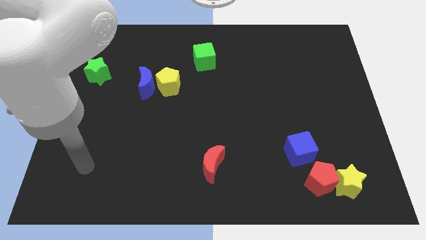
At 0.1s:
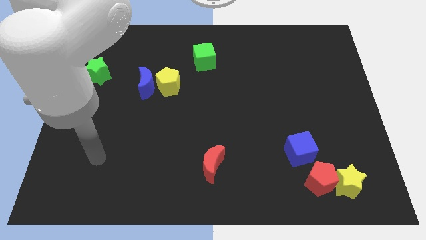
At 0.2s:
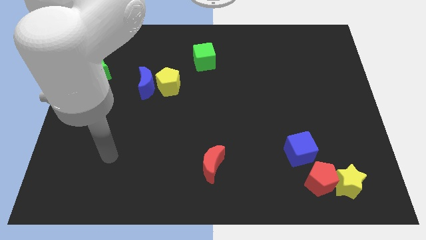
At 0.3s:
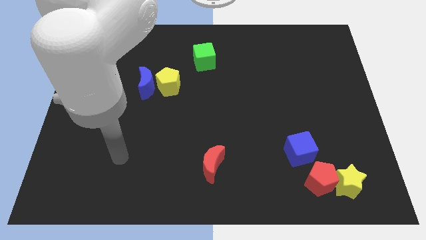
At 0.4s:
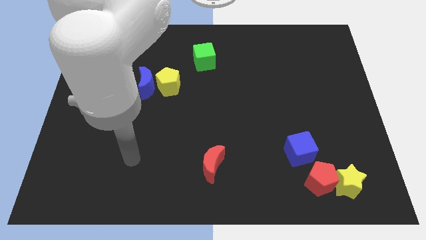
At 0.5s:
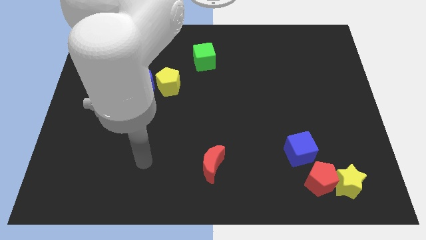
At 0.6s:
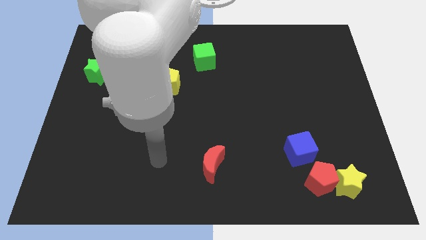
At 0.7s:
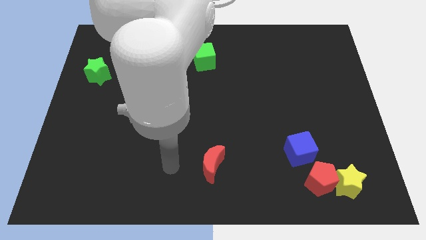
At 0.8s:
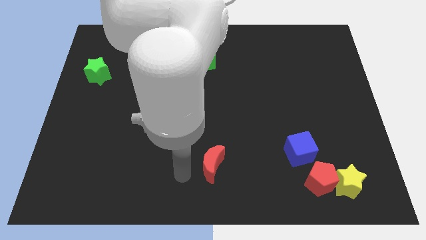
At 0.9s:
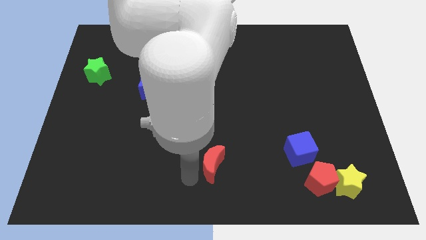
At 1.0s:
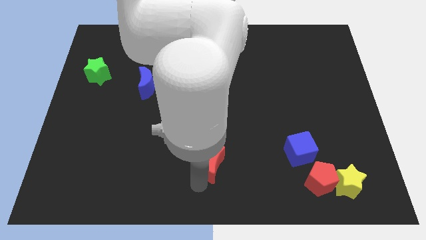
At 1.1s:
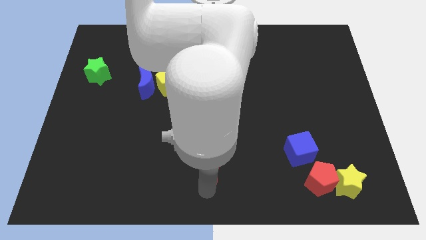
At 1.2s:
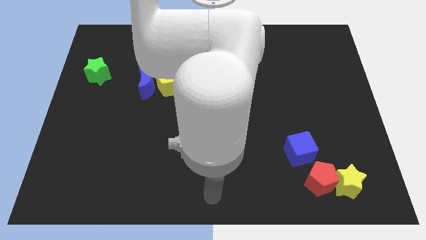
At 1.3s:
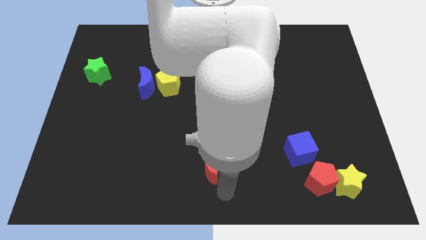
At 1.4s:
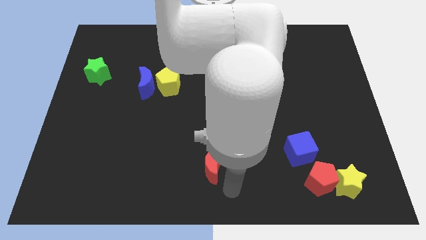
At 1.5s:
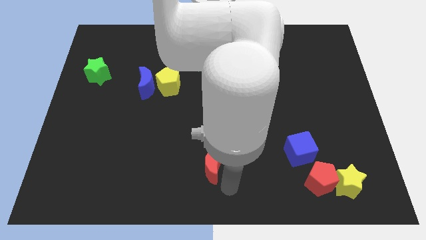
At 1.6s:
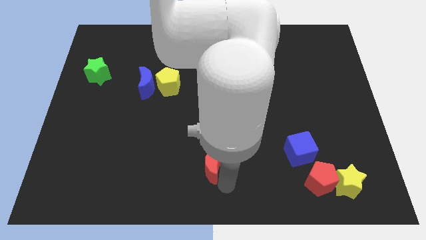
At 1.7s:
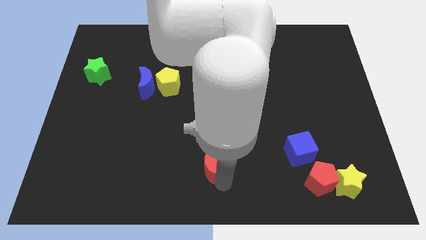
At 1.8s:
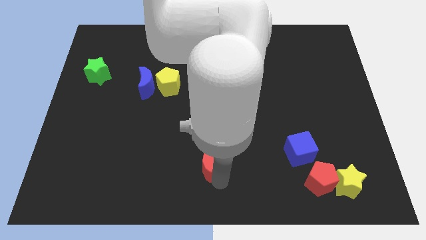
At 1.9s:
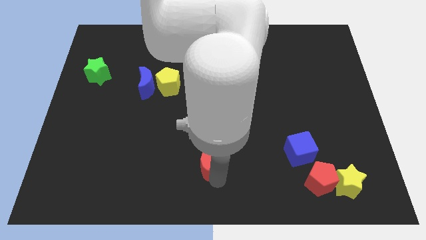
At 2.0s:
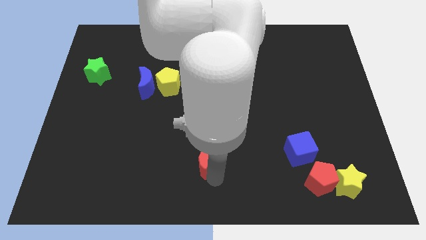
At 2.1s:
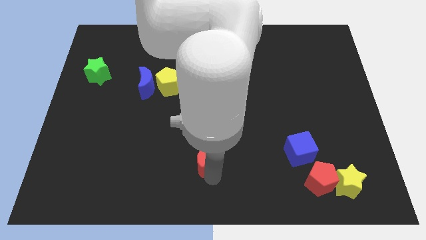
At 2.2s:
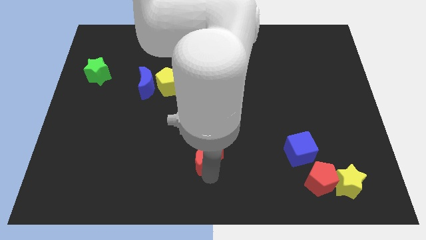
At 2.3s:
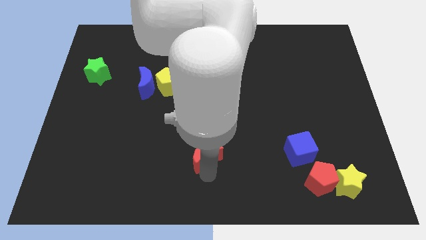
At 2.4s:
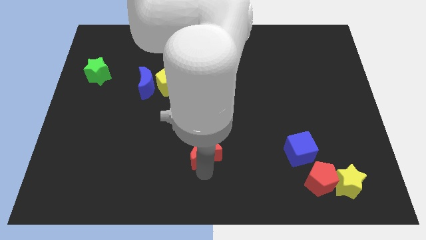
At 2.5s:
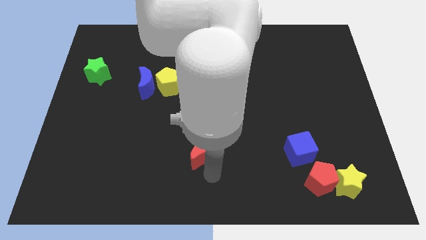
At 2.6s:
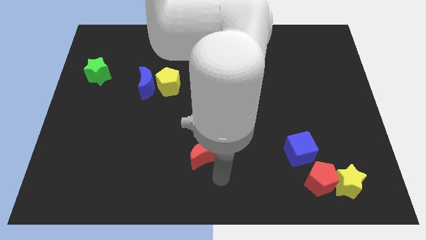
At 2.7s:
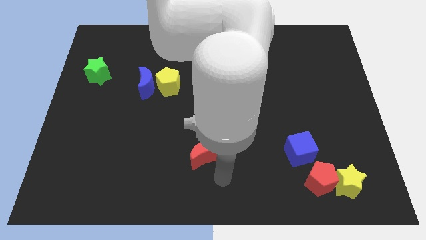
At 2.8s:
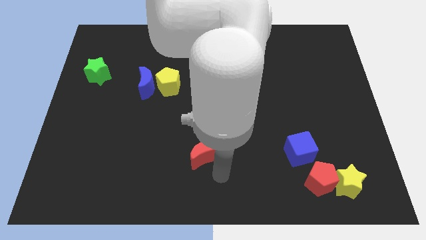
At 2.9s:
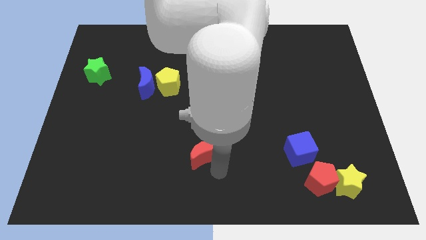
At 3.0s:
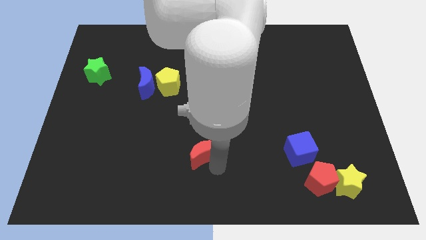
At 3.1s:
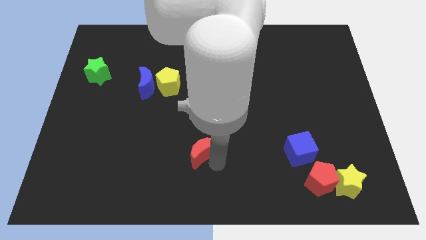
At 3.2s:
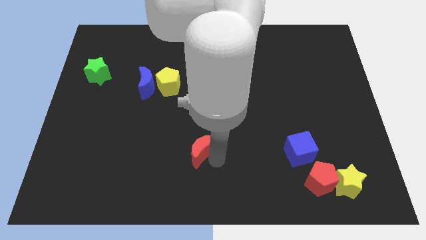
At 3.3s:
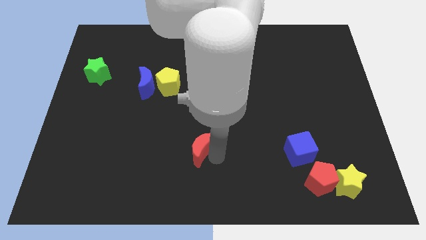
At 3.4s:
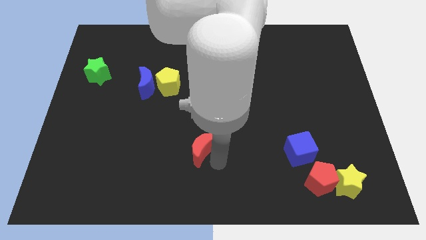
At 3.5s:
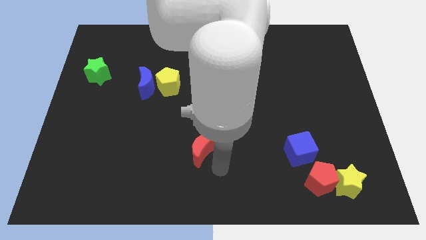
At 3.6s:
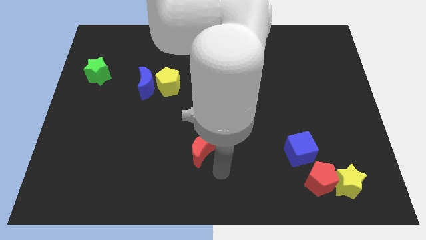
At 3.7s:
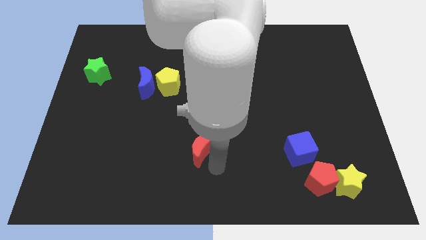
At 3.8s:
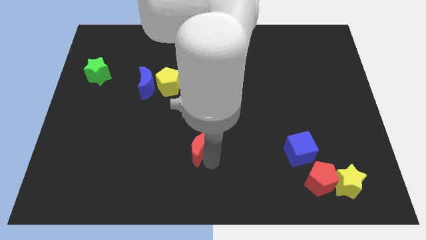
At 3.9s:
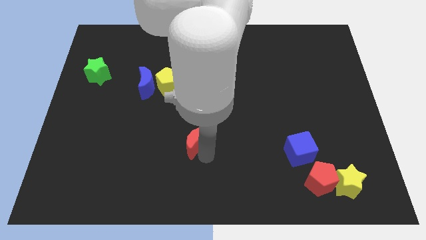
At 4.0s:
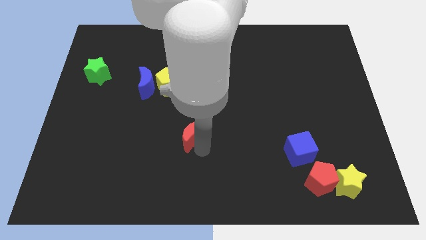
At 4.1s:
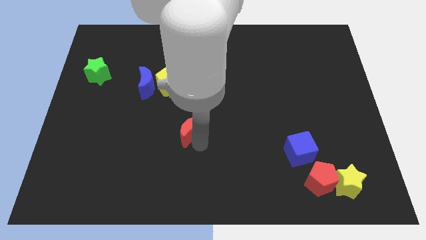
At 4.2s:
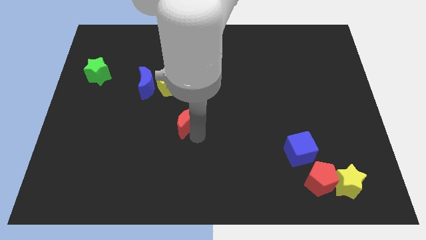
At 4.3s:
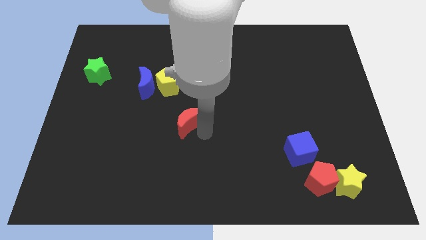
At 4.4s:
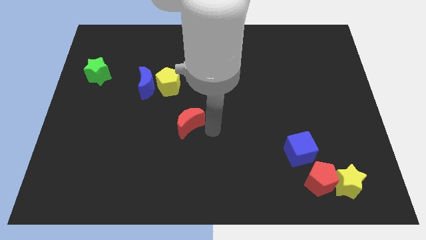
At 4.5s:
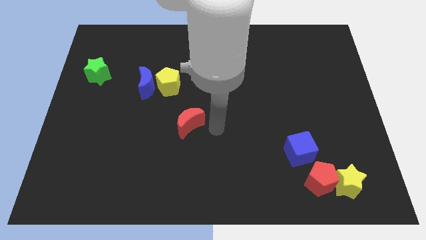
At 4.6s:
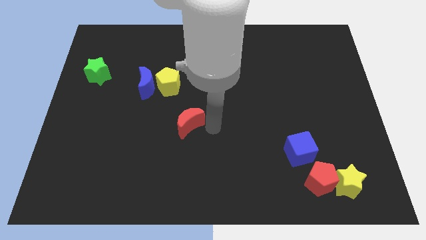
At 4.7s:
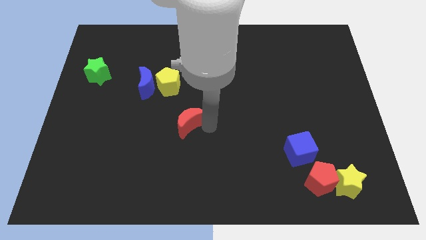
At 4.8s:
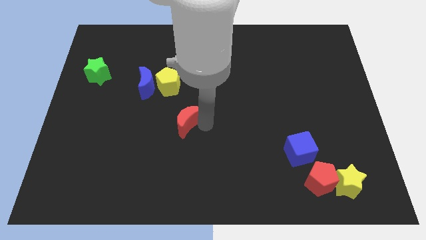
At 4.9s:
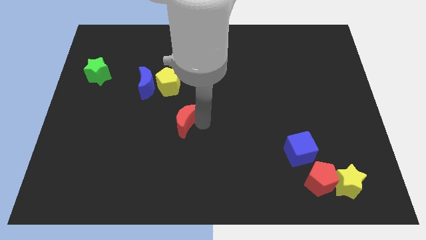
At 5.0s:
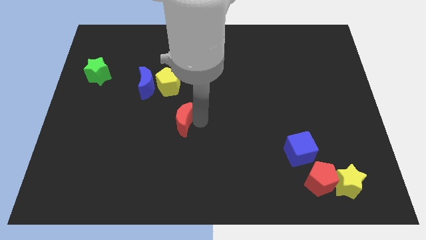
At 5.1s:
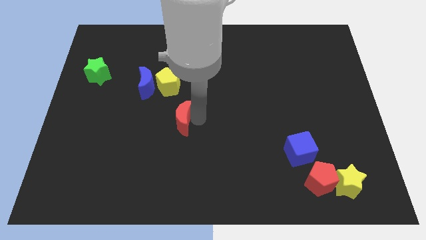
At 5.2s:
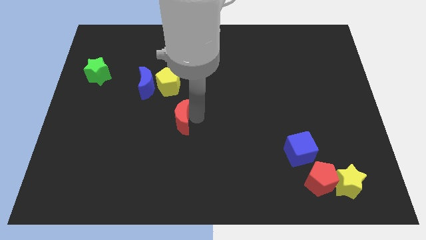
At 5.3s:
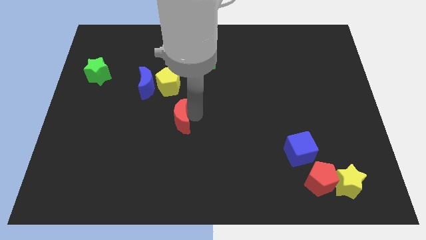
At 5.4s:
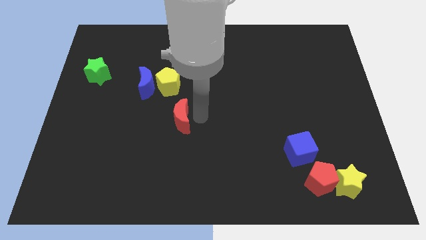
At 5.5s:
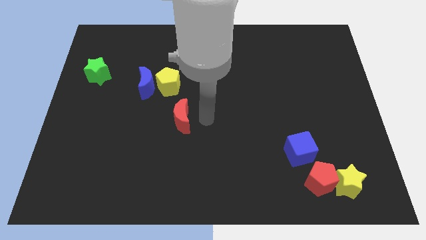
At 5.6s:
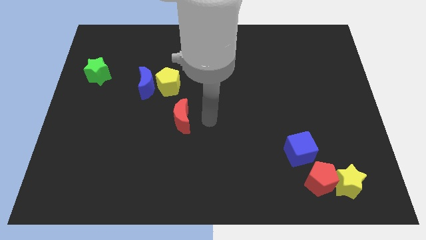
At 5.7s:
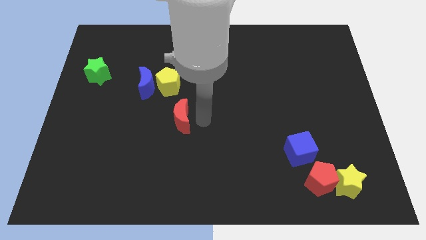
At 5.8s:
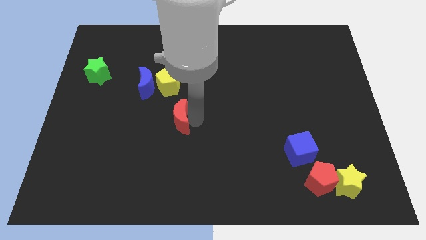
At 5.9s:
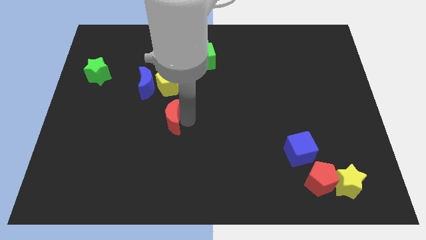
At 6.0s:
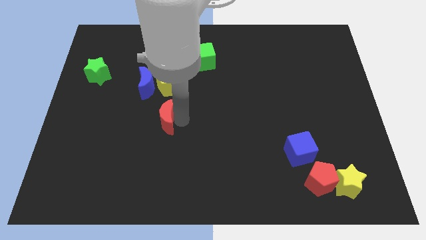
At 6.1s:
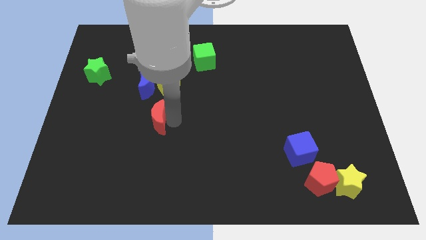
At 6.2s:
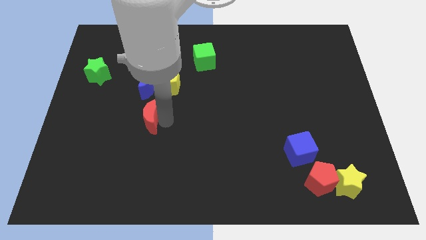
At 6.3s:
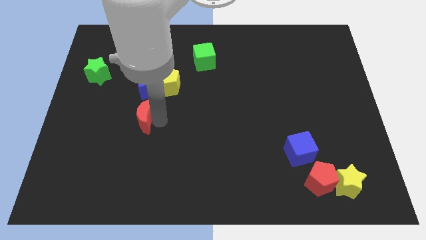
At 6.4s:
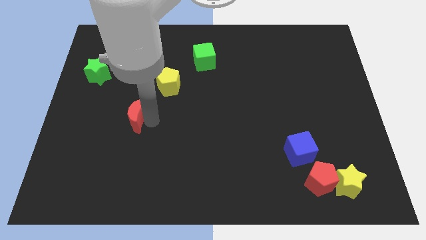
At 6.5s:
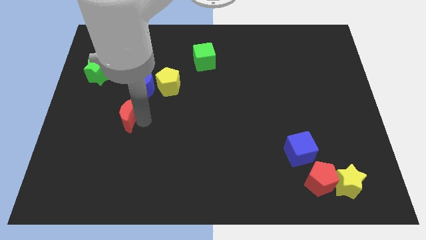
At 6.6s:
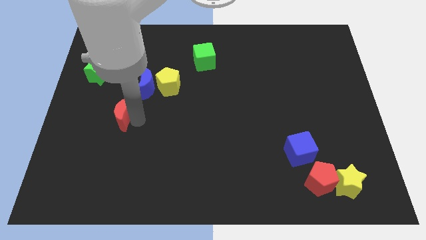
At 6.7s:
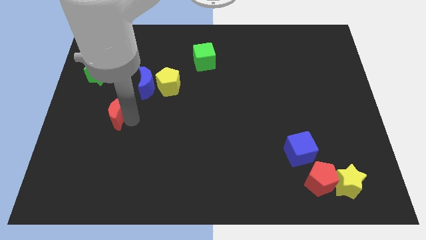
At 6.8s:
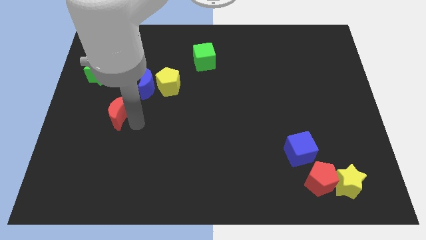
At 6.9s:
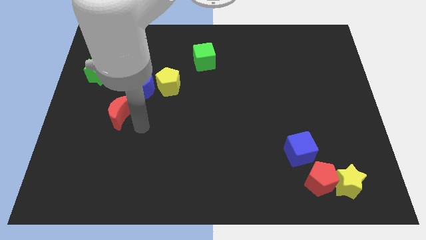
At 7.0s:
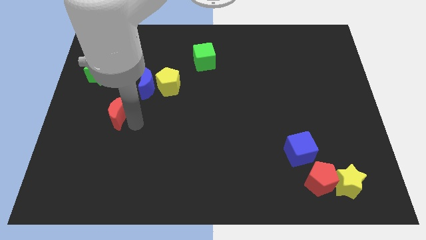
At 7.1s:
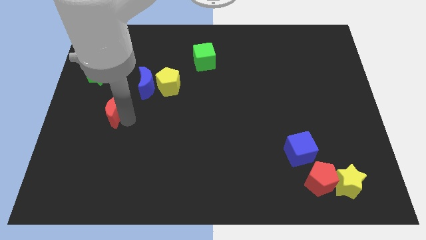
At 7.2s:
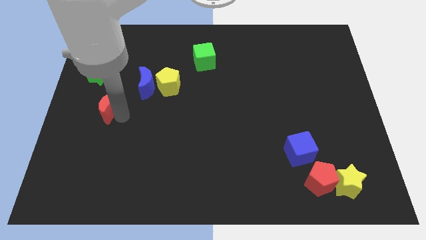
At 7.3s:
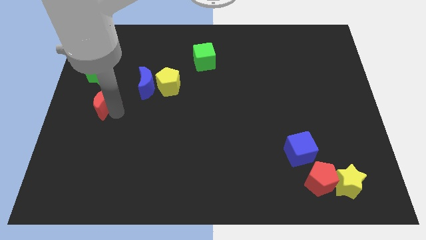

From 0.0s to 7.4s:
push the red moon to the left side
